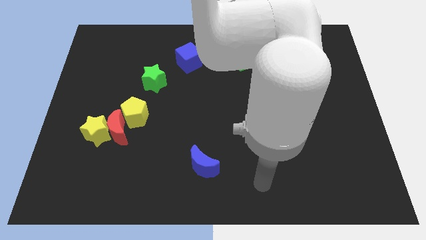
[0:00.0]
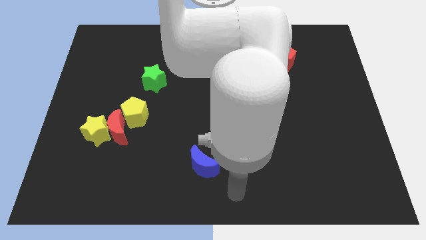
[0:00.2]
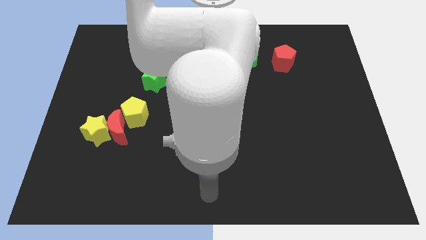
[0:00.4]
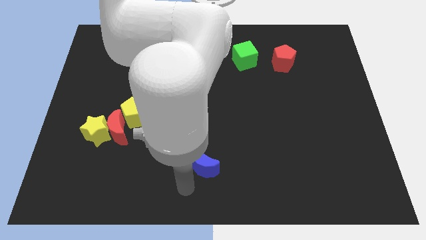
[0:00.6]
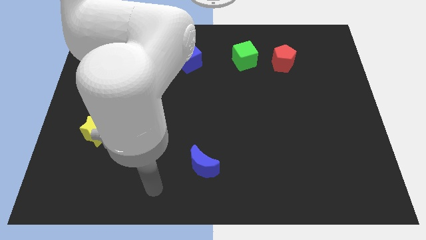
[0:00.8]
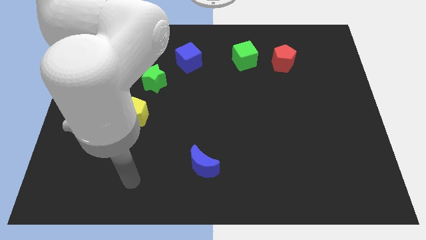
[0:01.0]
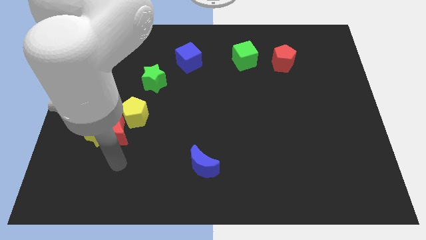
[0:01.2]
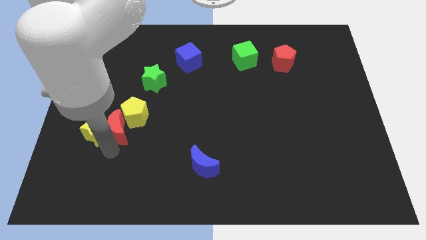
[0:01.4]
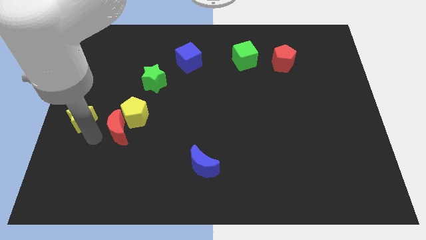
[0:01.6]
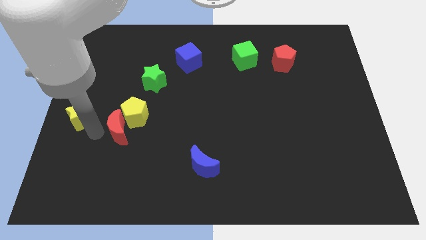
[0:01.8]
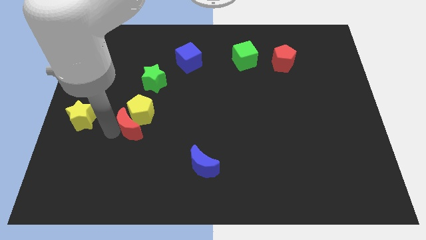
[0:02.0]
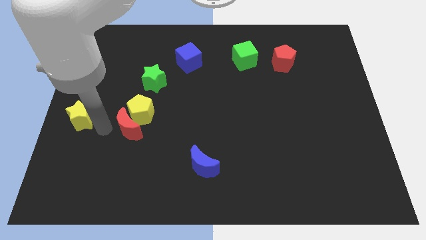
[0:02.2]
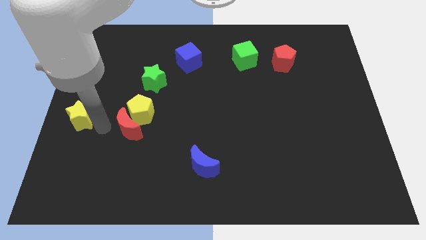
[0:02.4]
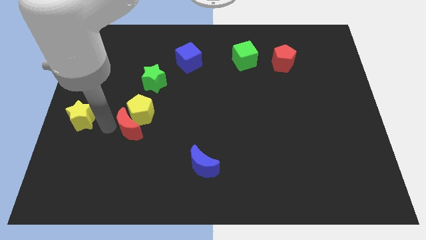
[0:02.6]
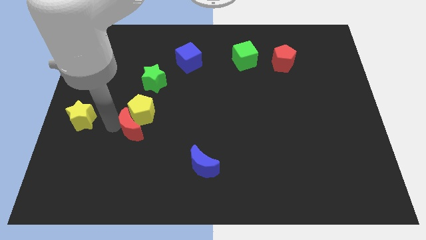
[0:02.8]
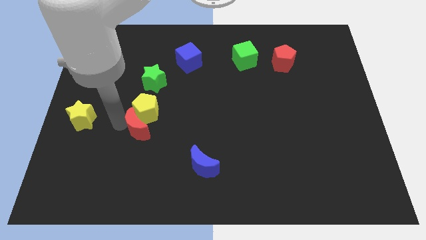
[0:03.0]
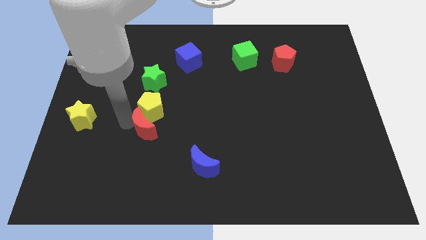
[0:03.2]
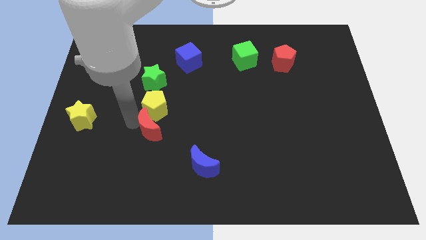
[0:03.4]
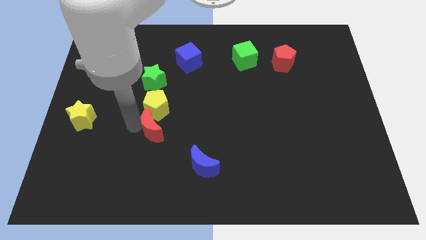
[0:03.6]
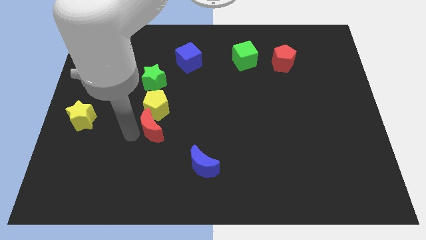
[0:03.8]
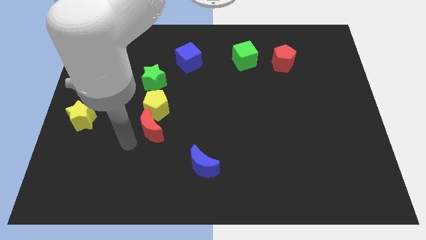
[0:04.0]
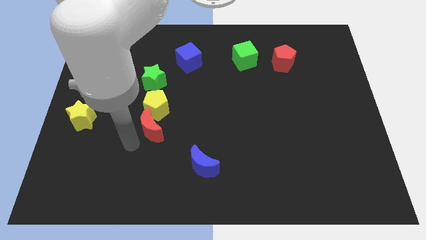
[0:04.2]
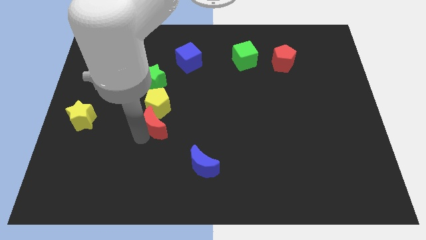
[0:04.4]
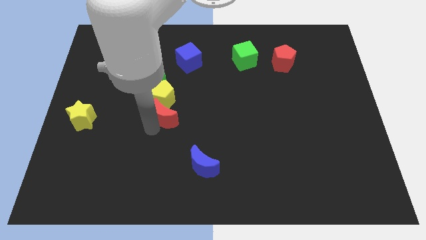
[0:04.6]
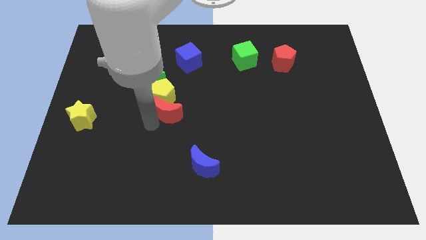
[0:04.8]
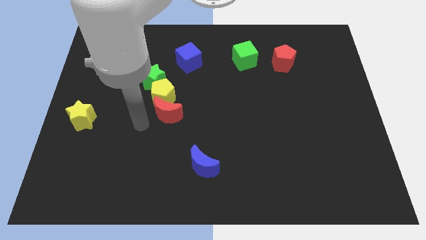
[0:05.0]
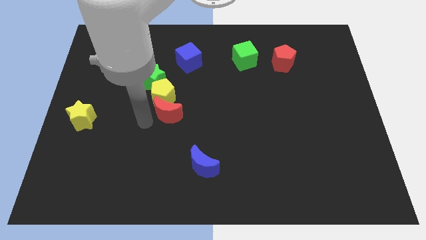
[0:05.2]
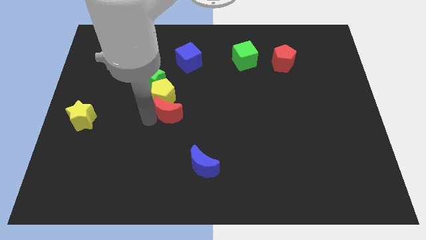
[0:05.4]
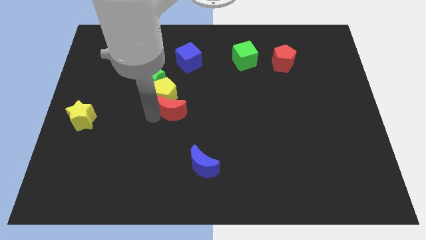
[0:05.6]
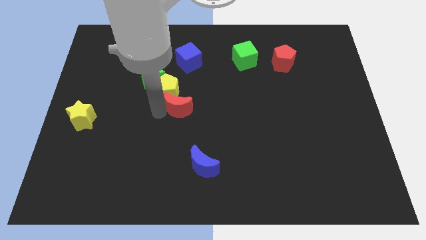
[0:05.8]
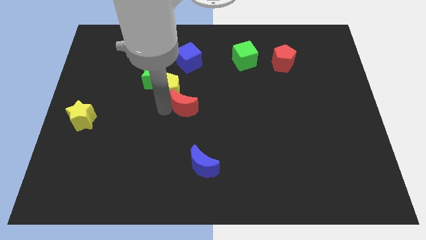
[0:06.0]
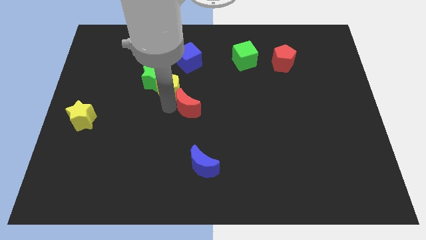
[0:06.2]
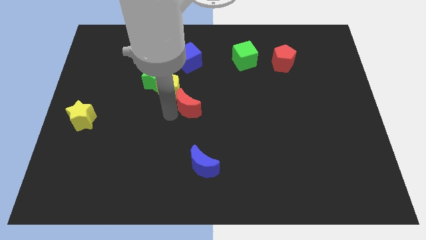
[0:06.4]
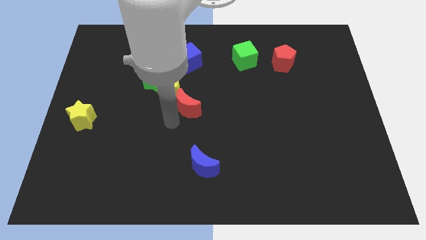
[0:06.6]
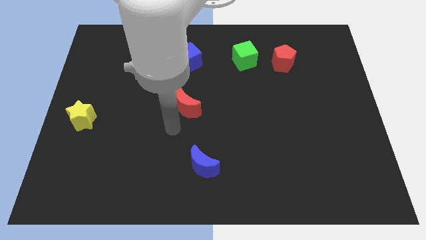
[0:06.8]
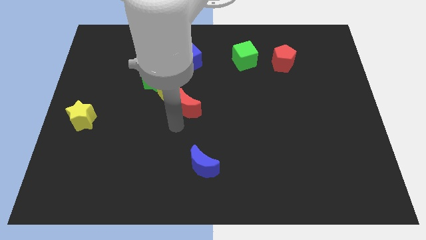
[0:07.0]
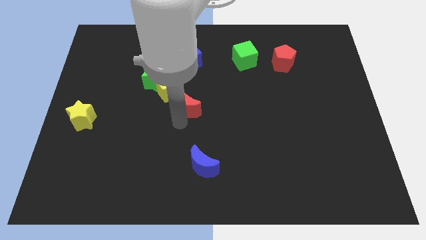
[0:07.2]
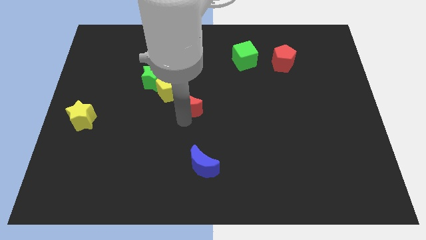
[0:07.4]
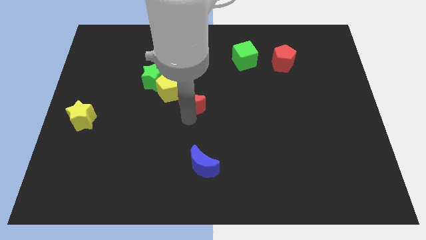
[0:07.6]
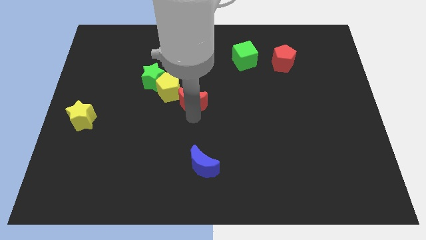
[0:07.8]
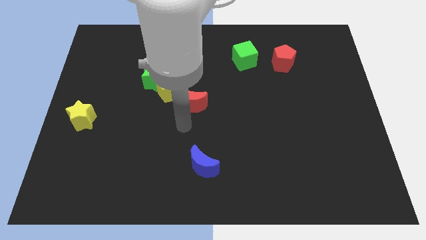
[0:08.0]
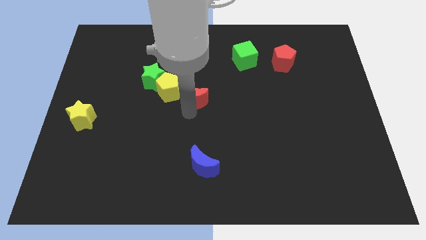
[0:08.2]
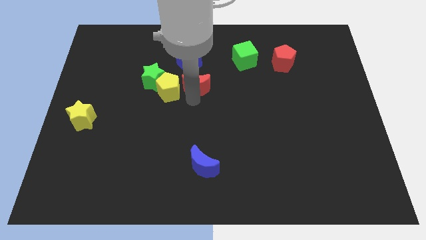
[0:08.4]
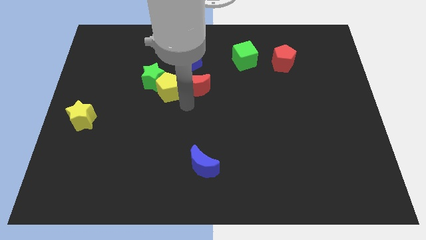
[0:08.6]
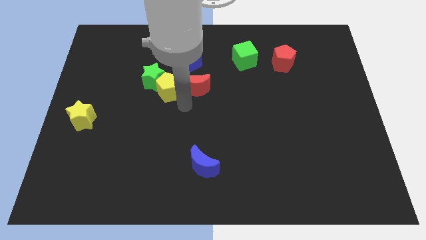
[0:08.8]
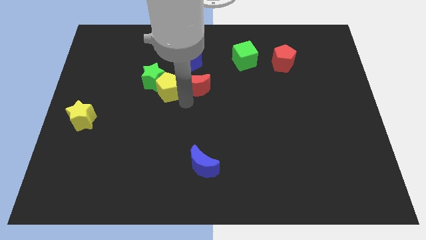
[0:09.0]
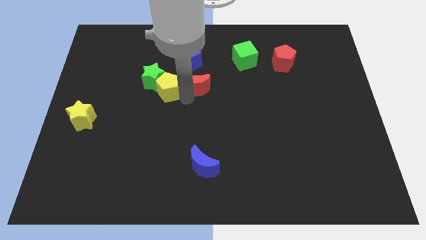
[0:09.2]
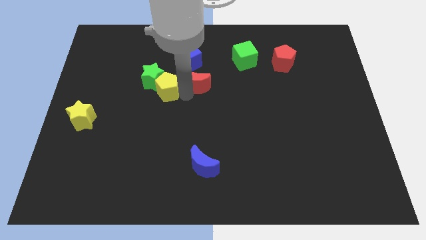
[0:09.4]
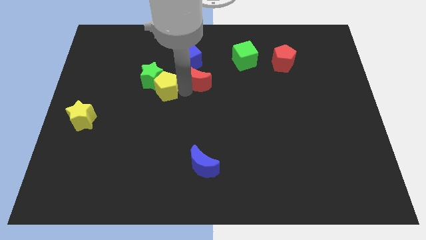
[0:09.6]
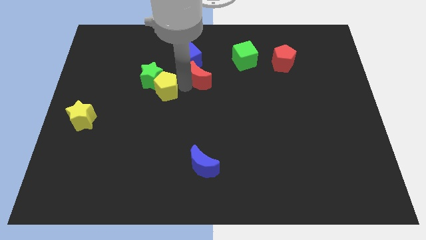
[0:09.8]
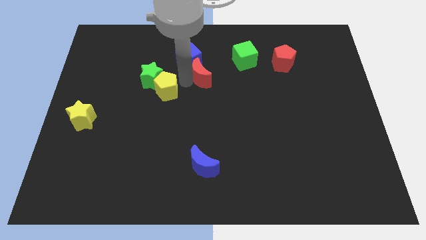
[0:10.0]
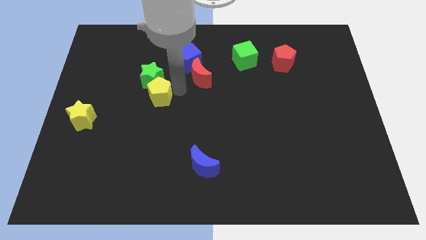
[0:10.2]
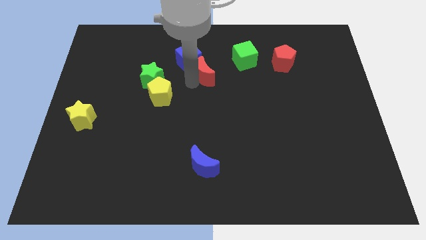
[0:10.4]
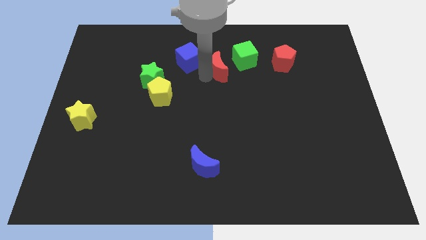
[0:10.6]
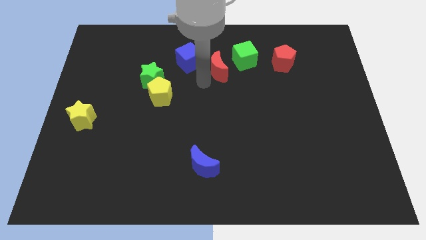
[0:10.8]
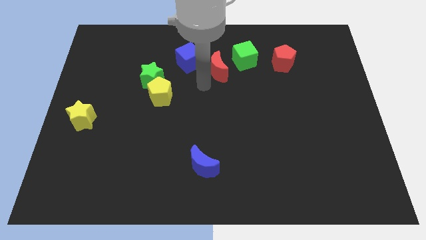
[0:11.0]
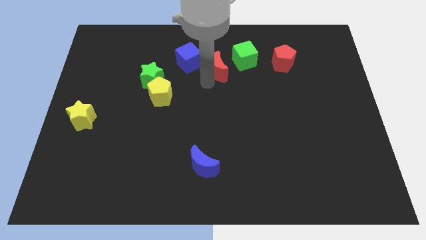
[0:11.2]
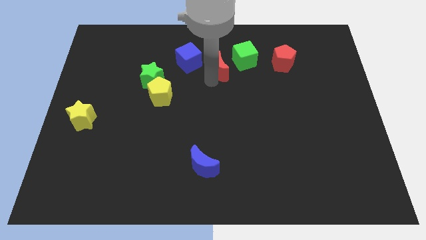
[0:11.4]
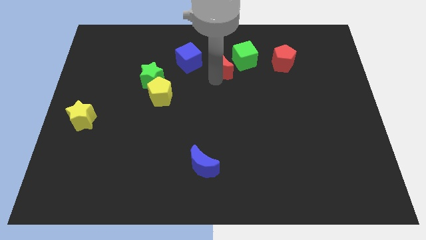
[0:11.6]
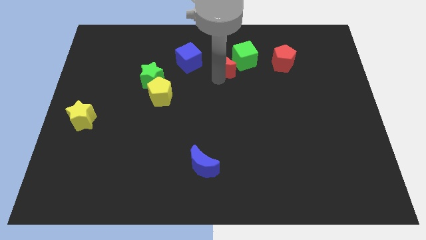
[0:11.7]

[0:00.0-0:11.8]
slide the red moon just left of the red pentagon

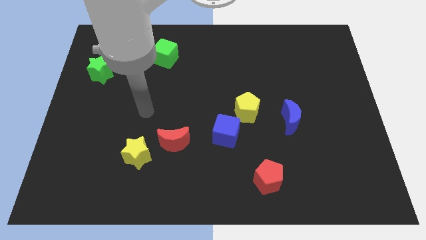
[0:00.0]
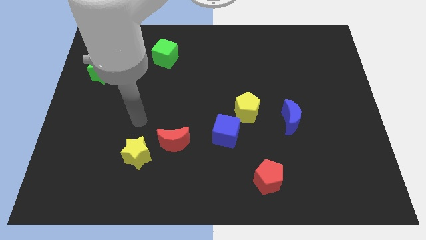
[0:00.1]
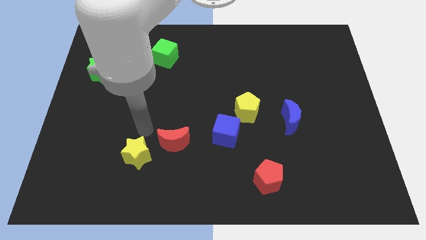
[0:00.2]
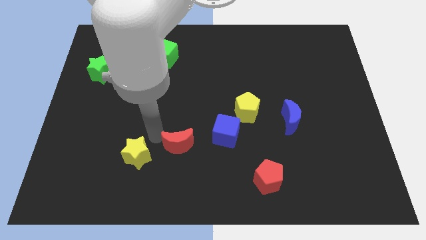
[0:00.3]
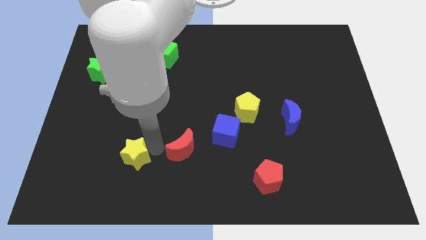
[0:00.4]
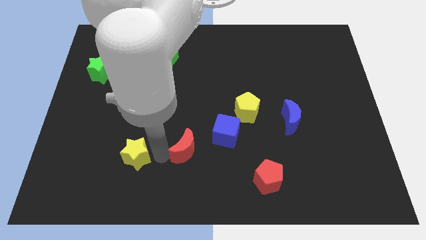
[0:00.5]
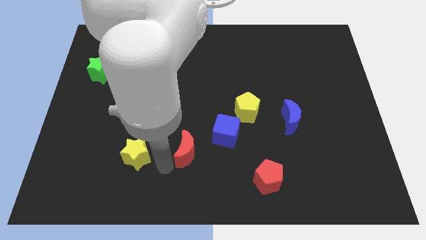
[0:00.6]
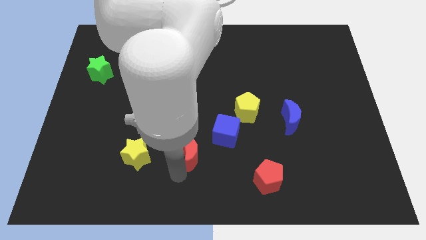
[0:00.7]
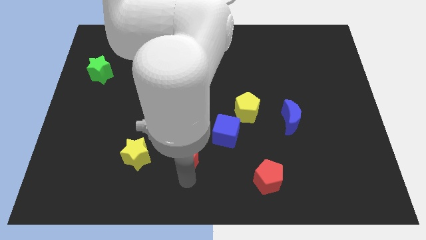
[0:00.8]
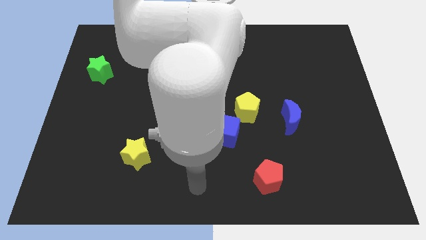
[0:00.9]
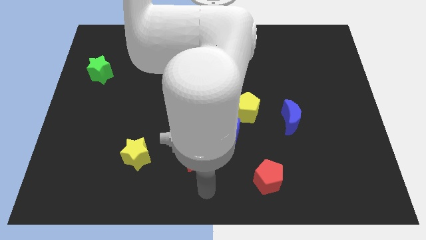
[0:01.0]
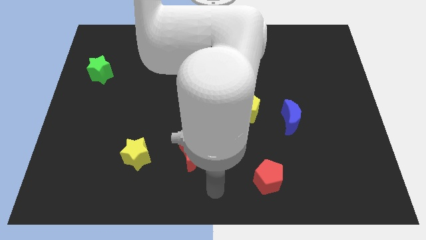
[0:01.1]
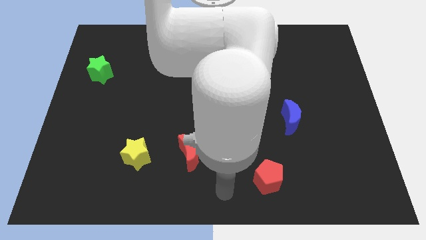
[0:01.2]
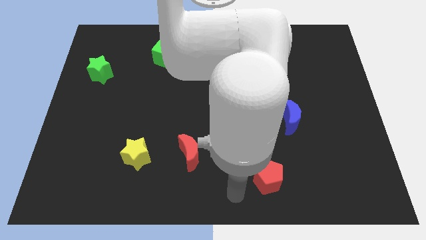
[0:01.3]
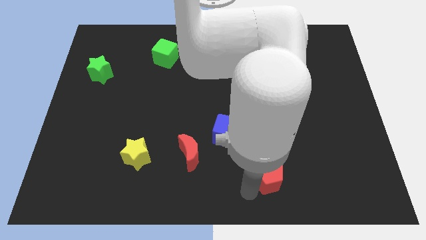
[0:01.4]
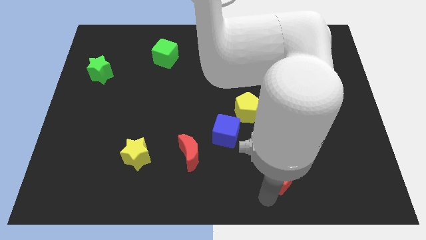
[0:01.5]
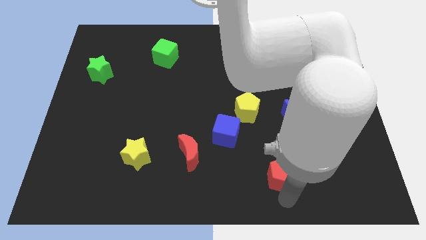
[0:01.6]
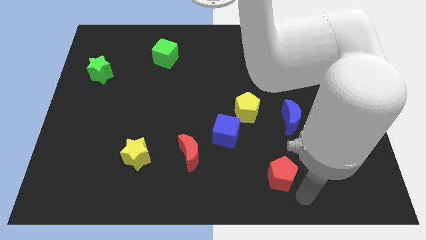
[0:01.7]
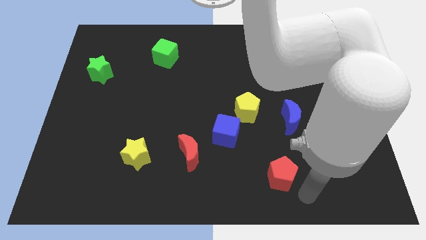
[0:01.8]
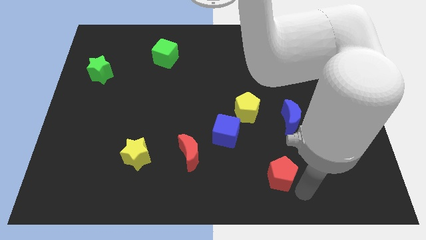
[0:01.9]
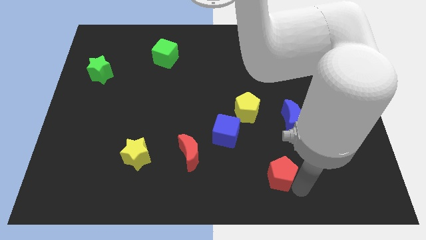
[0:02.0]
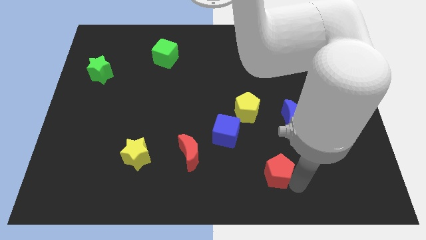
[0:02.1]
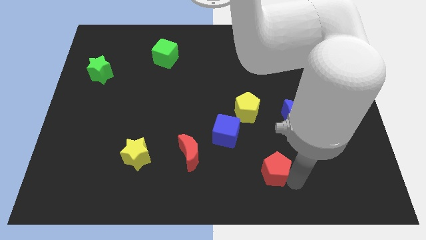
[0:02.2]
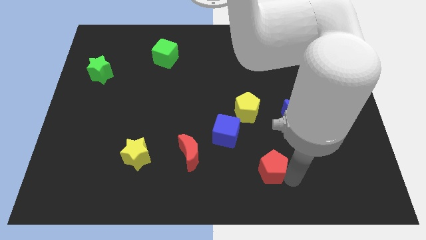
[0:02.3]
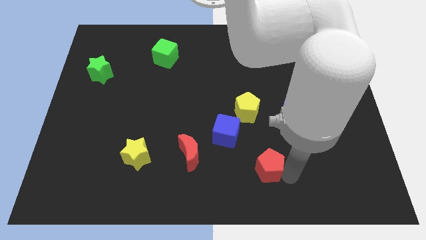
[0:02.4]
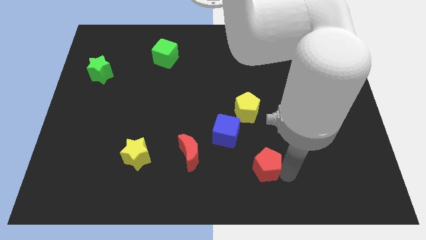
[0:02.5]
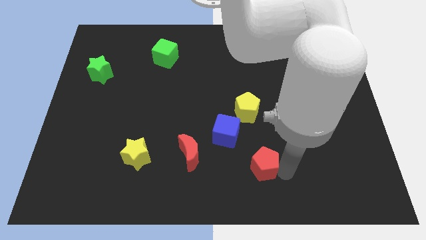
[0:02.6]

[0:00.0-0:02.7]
move the red pentagon to the right of the red moon
